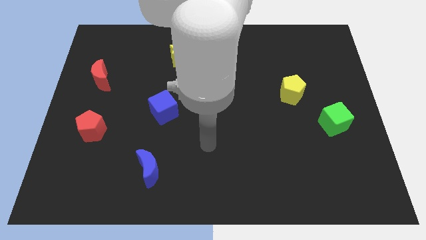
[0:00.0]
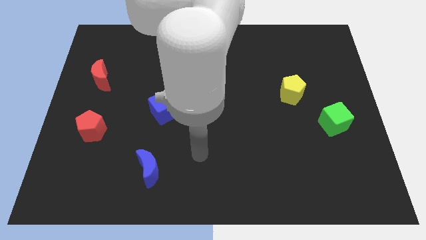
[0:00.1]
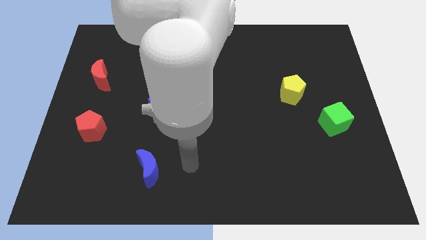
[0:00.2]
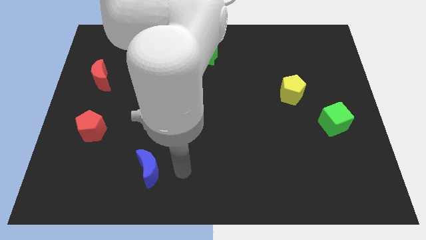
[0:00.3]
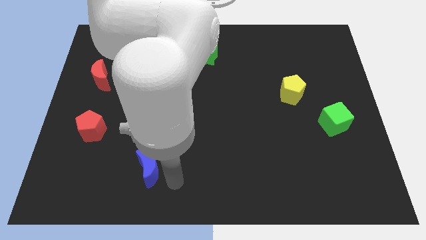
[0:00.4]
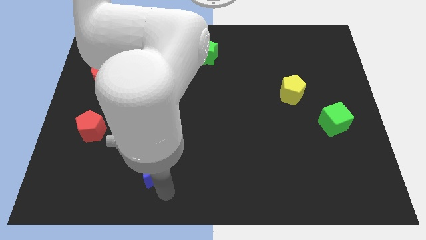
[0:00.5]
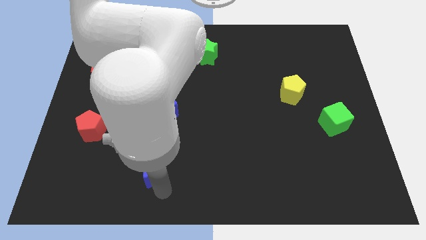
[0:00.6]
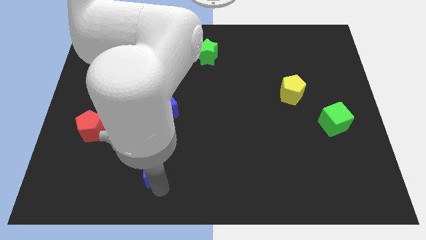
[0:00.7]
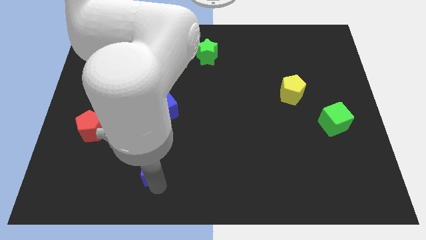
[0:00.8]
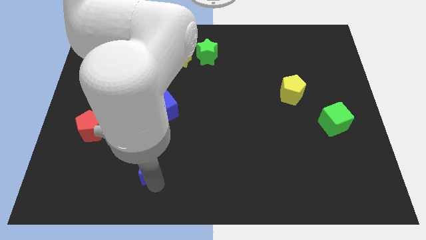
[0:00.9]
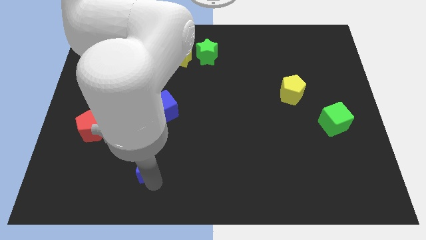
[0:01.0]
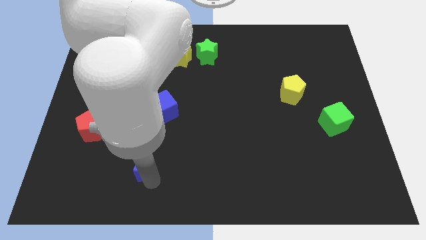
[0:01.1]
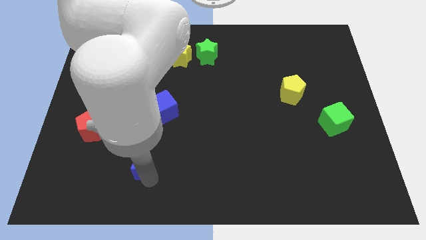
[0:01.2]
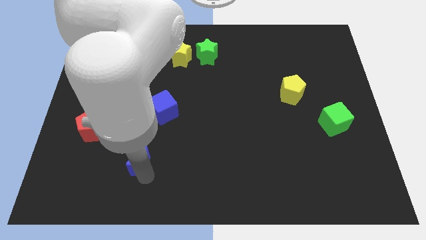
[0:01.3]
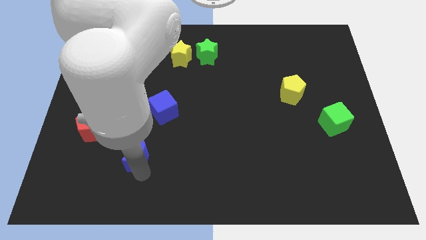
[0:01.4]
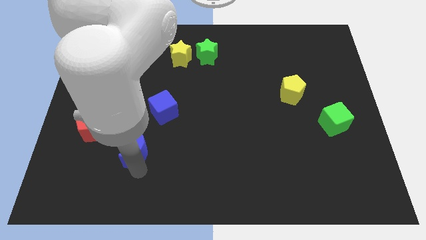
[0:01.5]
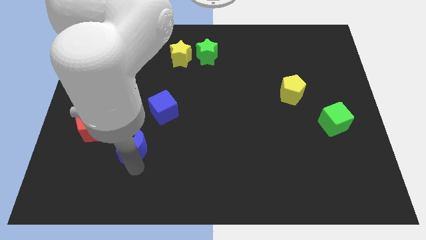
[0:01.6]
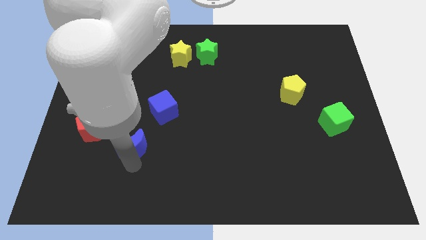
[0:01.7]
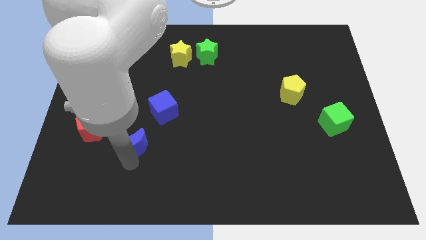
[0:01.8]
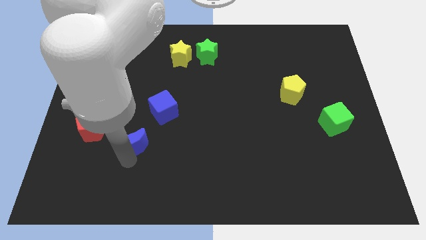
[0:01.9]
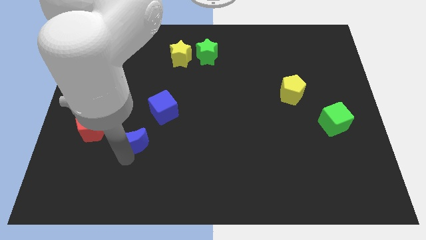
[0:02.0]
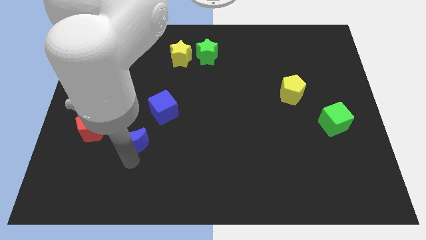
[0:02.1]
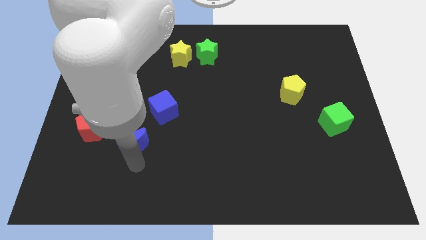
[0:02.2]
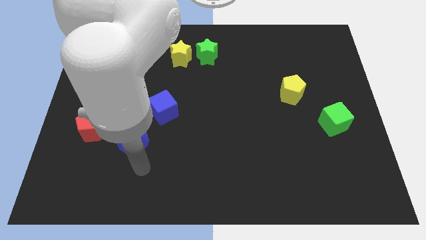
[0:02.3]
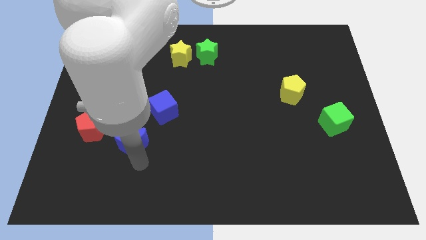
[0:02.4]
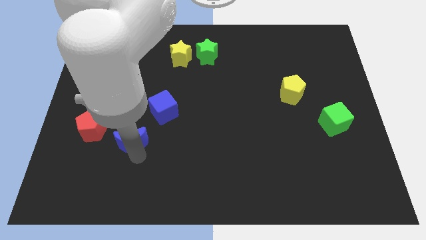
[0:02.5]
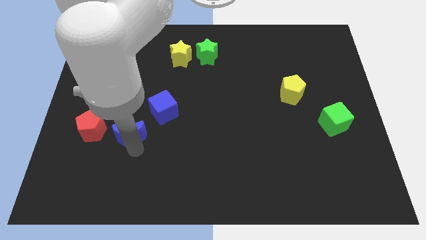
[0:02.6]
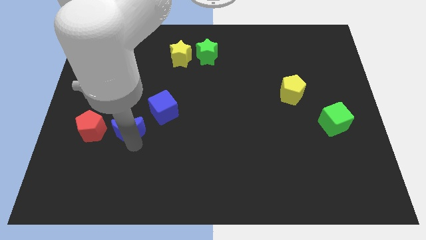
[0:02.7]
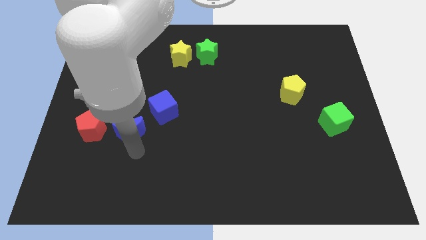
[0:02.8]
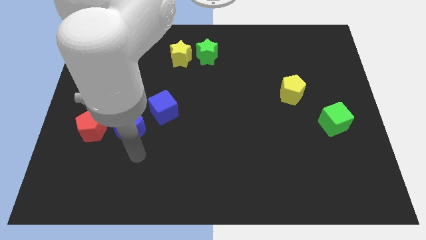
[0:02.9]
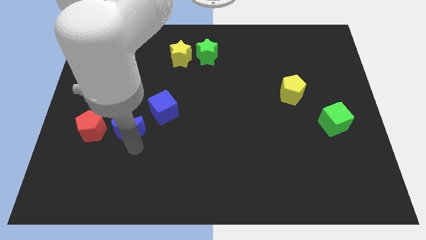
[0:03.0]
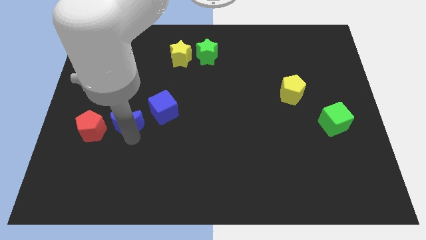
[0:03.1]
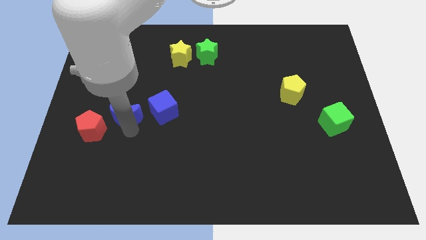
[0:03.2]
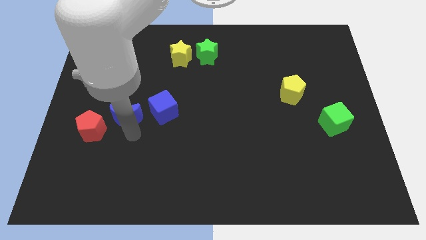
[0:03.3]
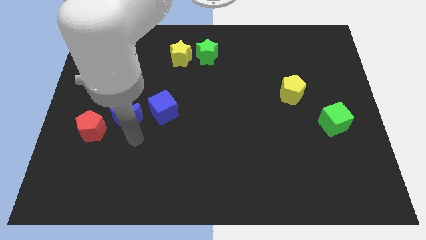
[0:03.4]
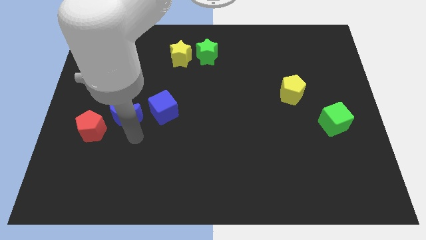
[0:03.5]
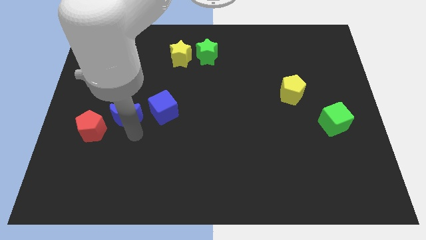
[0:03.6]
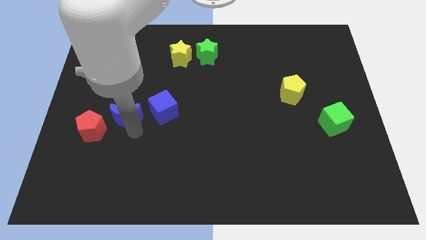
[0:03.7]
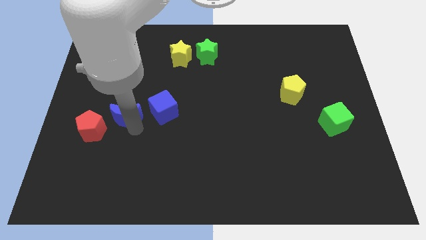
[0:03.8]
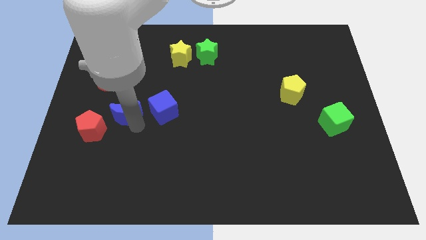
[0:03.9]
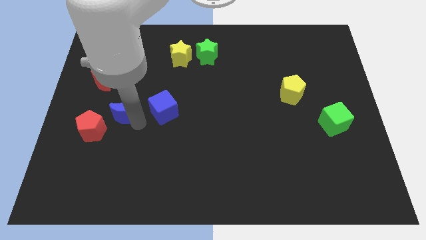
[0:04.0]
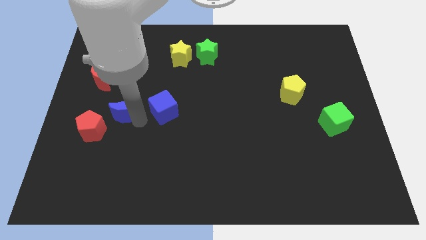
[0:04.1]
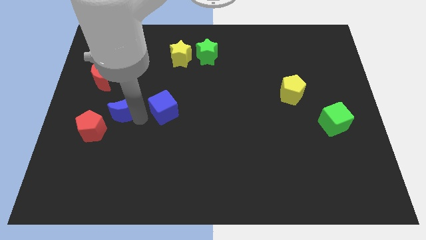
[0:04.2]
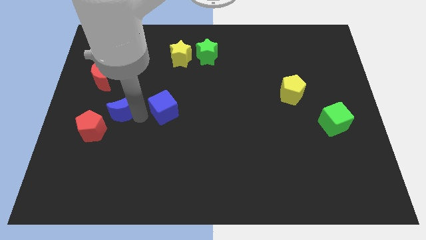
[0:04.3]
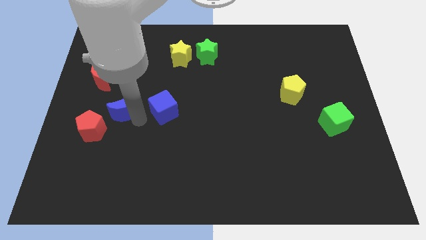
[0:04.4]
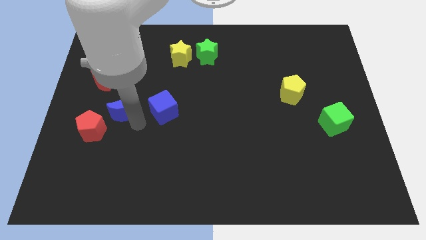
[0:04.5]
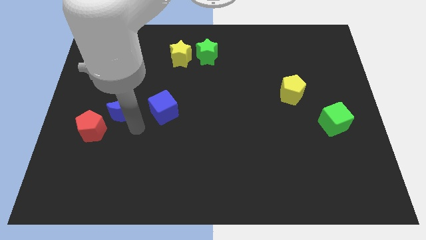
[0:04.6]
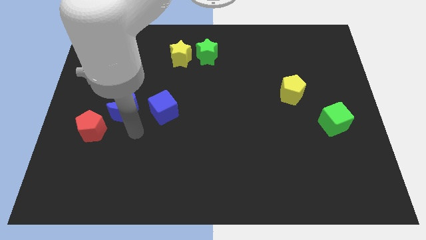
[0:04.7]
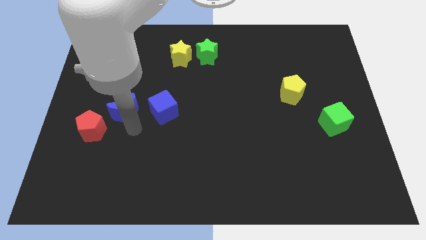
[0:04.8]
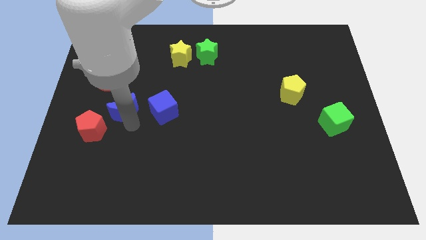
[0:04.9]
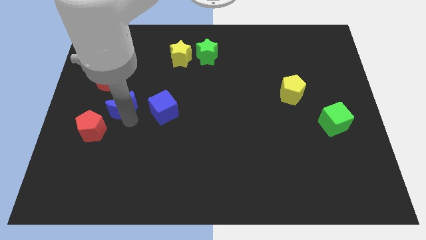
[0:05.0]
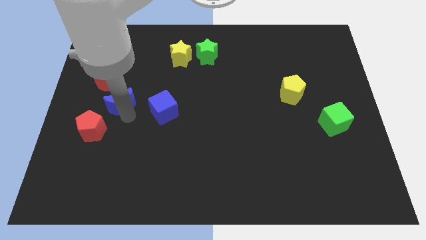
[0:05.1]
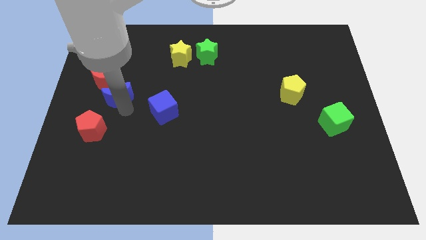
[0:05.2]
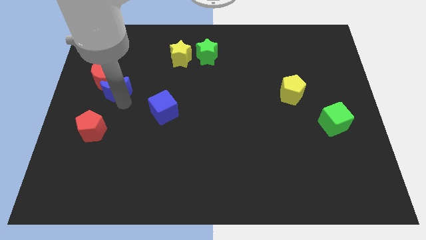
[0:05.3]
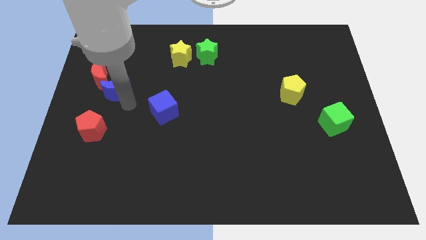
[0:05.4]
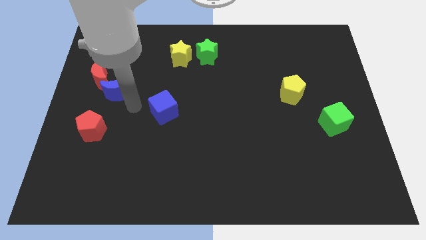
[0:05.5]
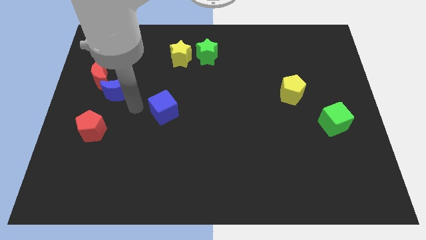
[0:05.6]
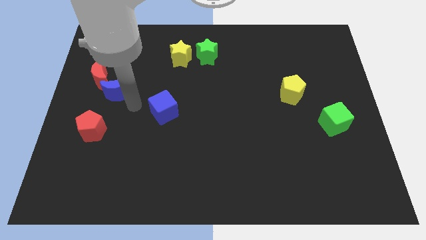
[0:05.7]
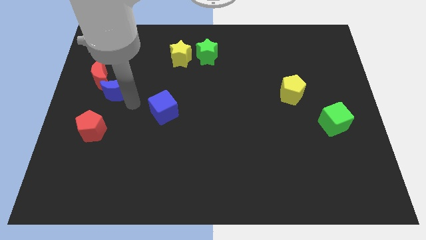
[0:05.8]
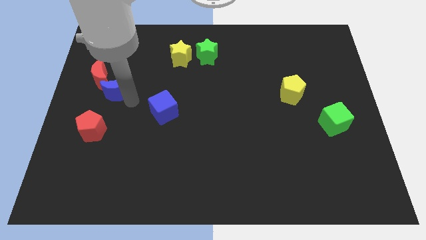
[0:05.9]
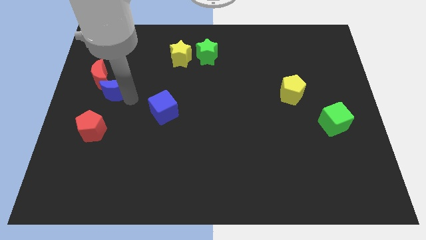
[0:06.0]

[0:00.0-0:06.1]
move the blue moon towards the red moon

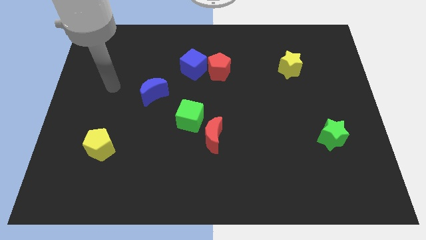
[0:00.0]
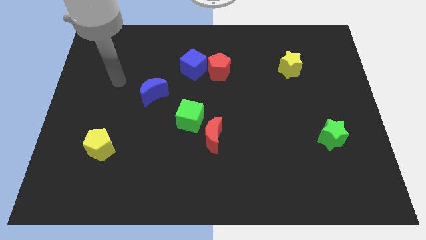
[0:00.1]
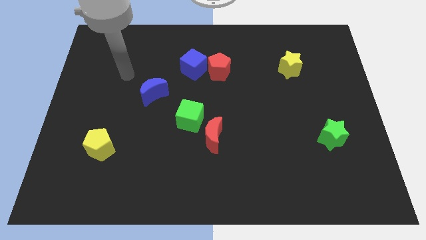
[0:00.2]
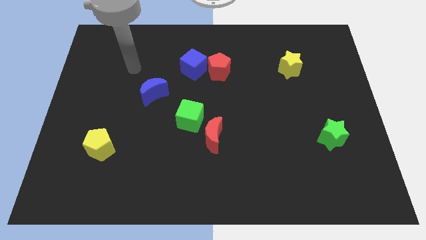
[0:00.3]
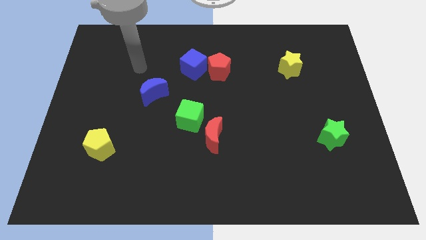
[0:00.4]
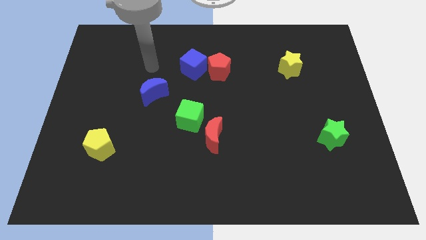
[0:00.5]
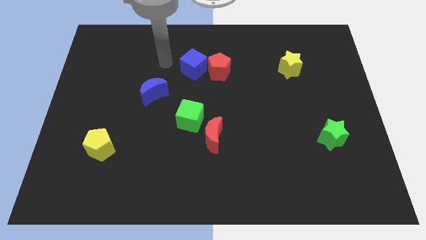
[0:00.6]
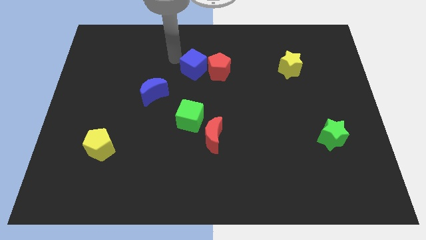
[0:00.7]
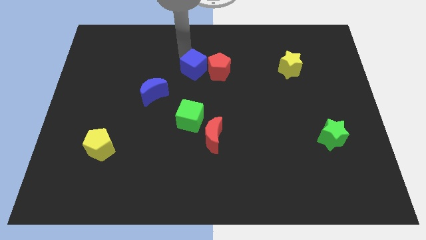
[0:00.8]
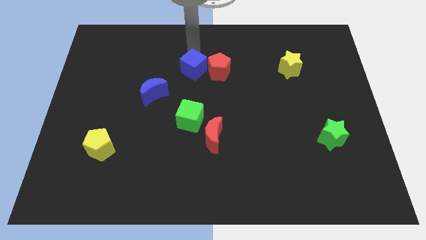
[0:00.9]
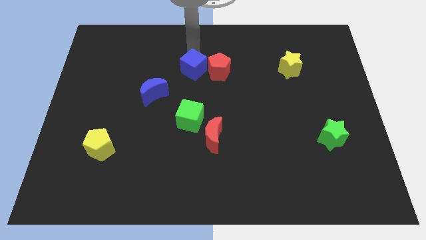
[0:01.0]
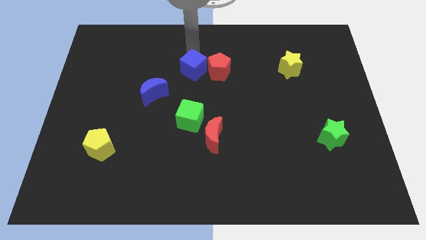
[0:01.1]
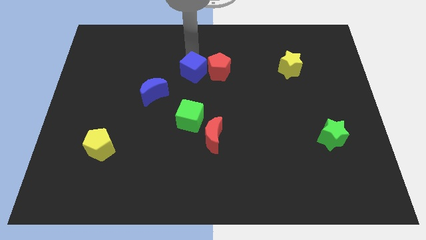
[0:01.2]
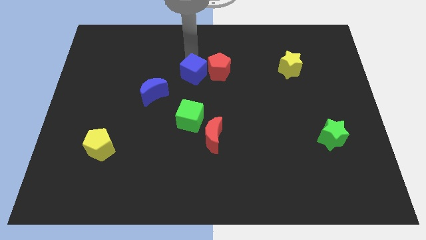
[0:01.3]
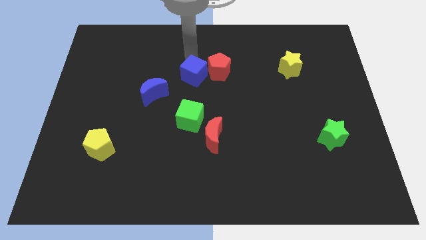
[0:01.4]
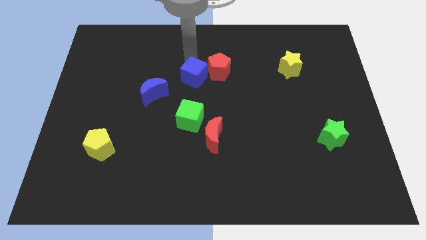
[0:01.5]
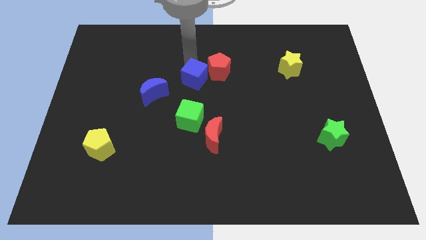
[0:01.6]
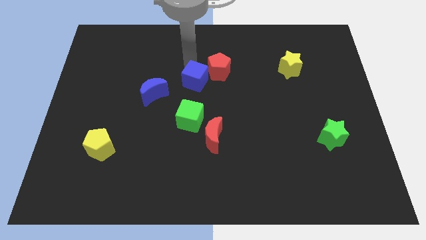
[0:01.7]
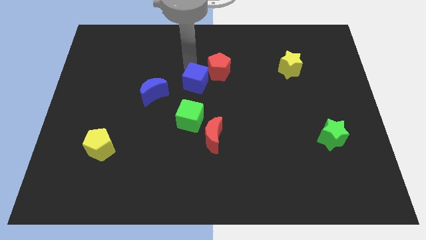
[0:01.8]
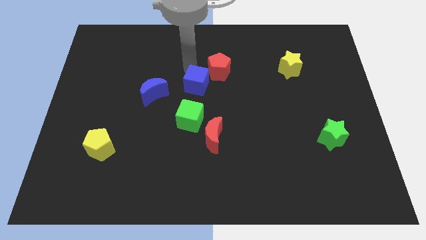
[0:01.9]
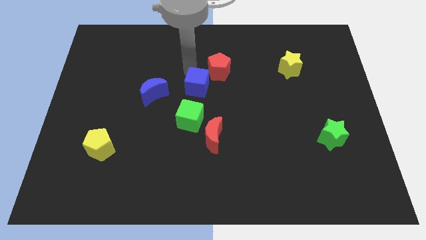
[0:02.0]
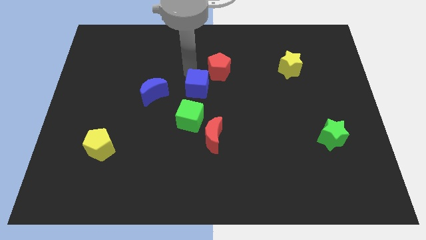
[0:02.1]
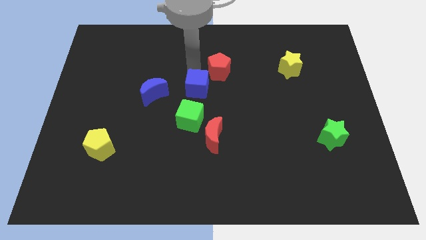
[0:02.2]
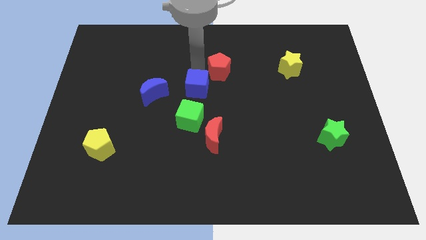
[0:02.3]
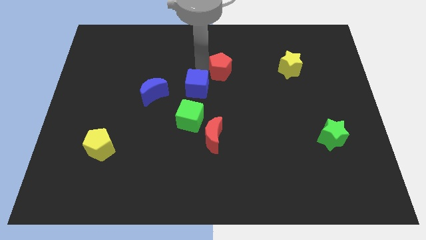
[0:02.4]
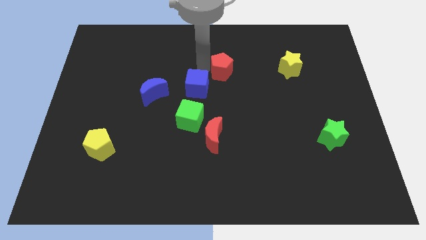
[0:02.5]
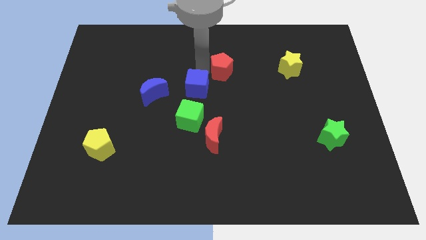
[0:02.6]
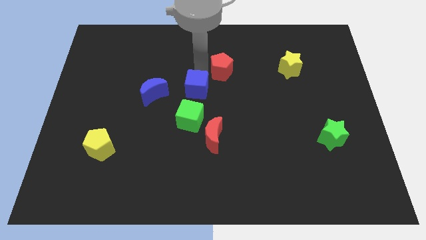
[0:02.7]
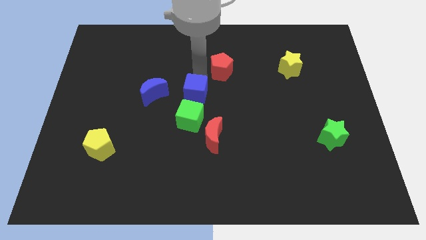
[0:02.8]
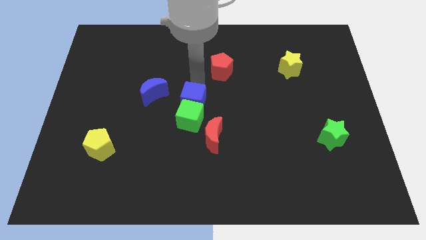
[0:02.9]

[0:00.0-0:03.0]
move the blue cube to the green cube
